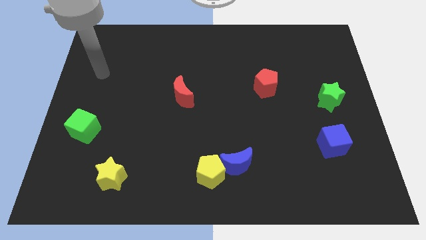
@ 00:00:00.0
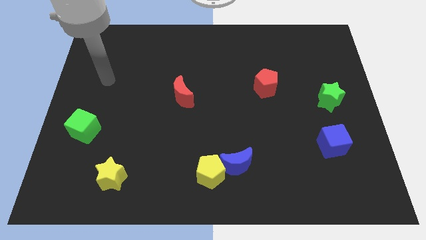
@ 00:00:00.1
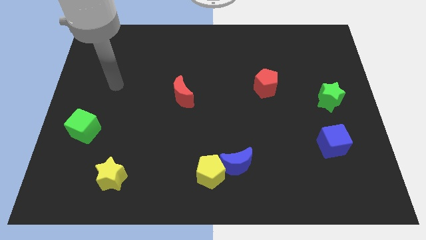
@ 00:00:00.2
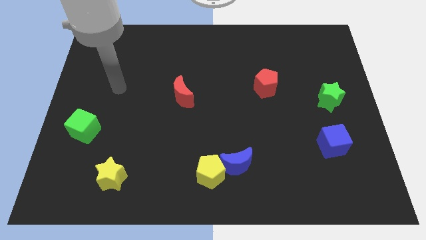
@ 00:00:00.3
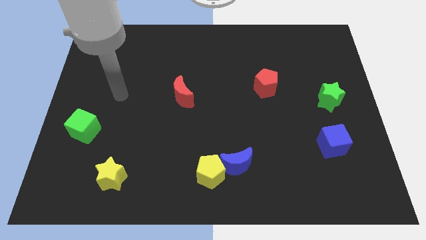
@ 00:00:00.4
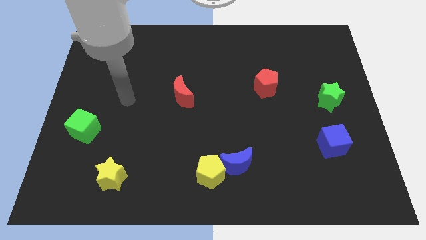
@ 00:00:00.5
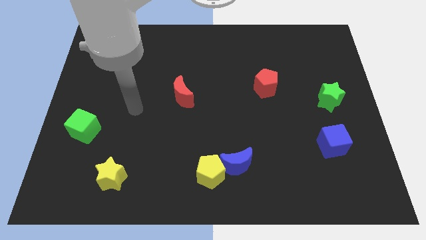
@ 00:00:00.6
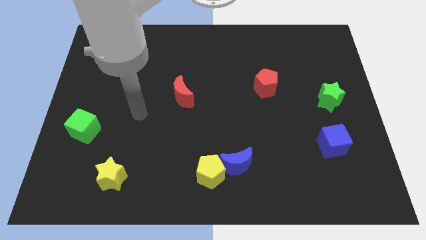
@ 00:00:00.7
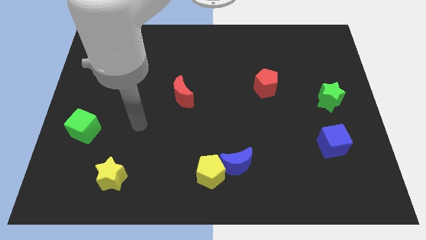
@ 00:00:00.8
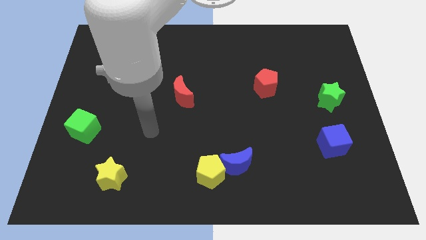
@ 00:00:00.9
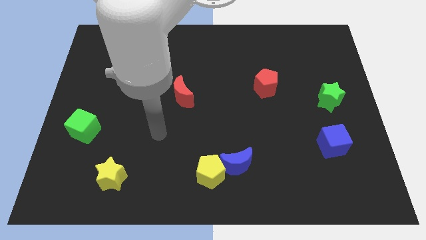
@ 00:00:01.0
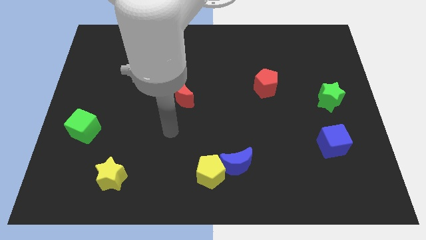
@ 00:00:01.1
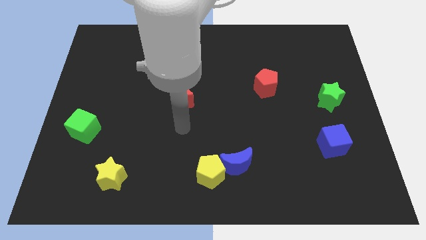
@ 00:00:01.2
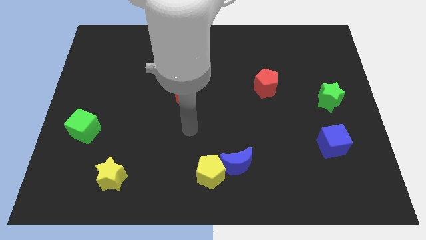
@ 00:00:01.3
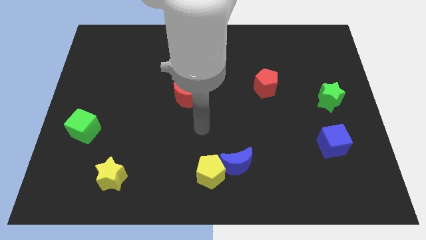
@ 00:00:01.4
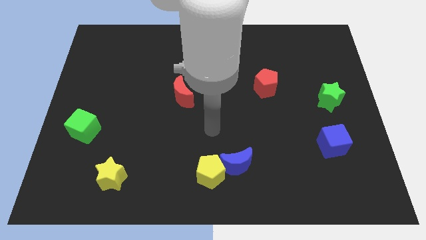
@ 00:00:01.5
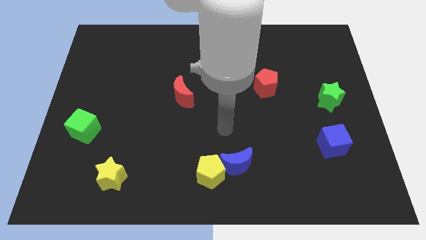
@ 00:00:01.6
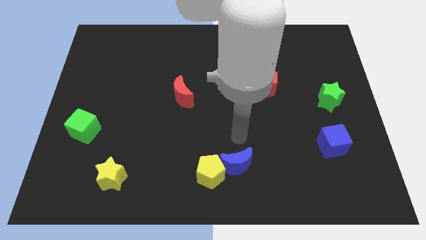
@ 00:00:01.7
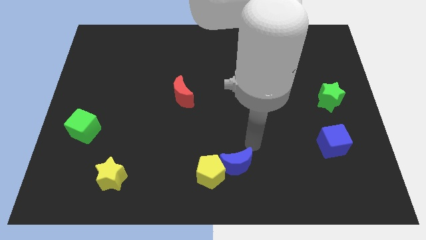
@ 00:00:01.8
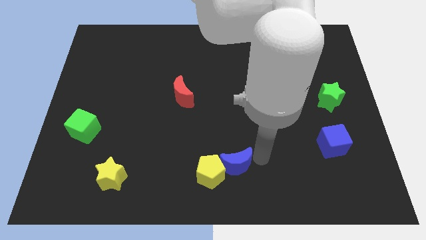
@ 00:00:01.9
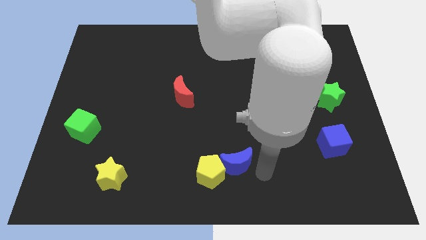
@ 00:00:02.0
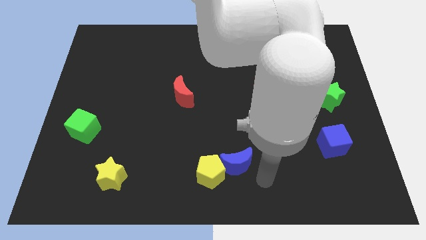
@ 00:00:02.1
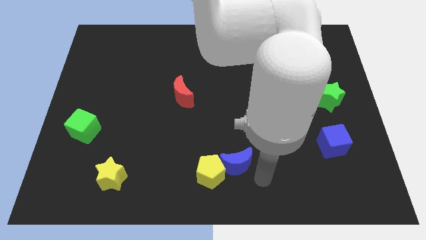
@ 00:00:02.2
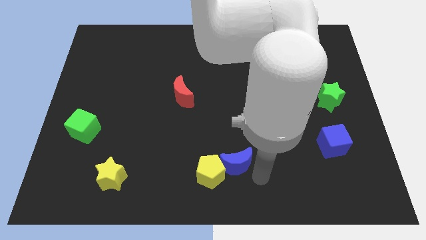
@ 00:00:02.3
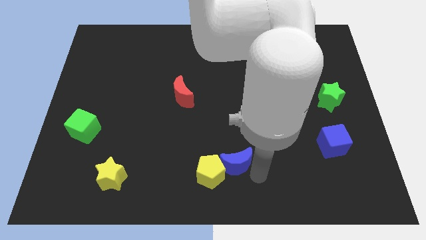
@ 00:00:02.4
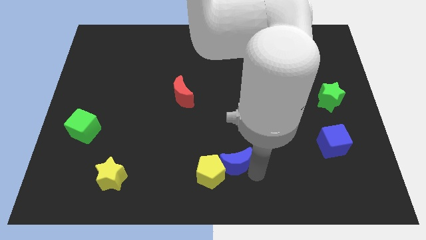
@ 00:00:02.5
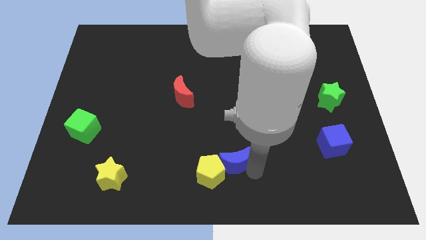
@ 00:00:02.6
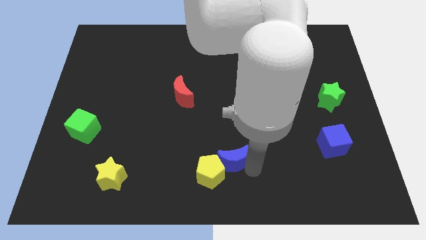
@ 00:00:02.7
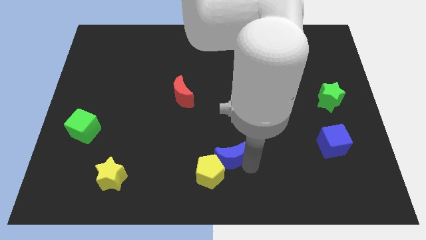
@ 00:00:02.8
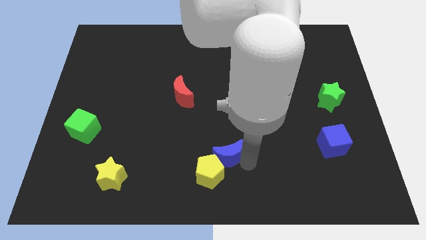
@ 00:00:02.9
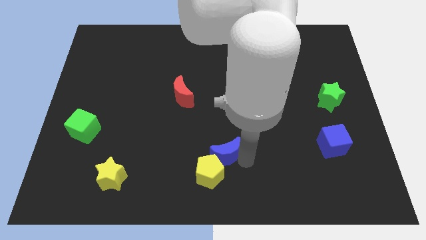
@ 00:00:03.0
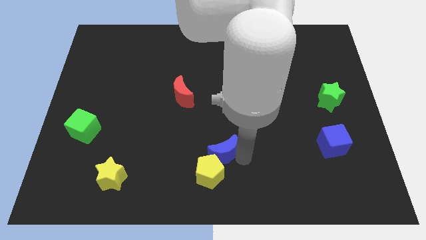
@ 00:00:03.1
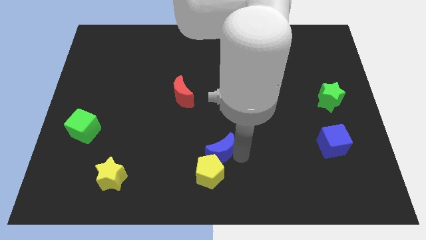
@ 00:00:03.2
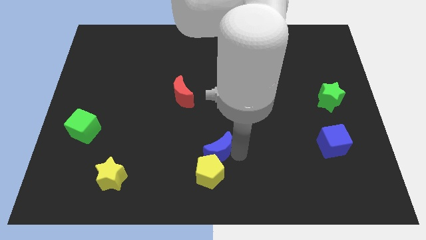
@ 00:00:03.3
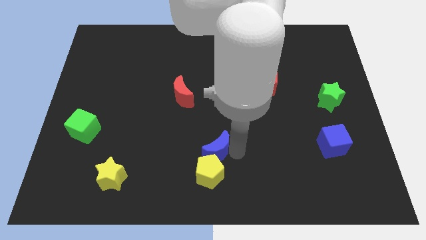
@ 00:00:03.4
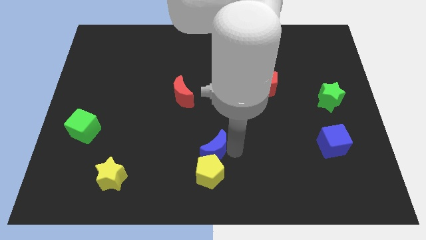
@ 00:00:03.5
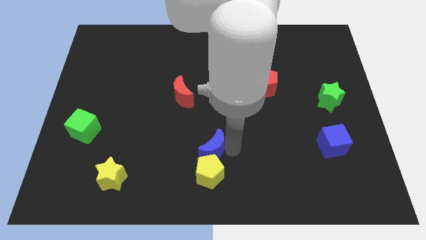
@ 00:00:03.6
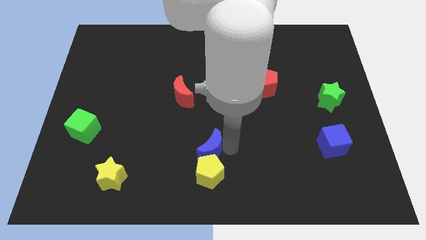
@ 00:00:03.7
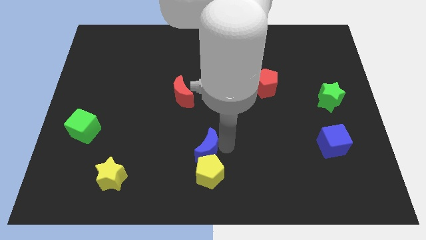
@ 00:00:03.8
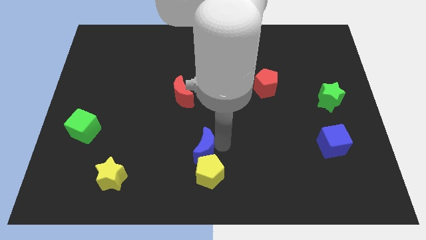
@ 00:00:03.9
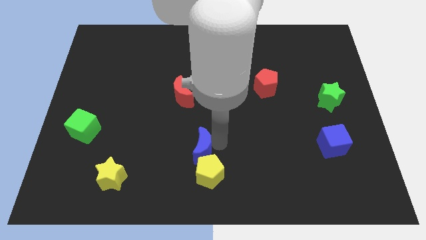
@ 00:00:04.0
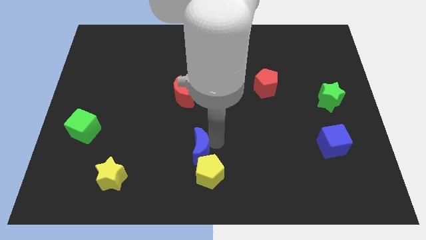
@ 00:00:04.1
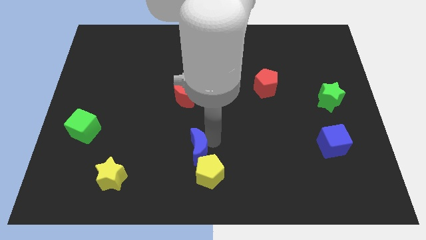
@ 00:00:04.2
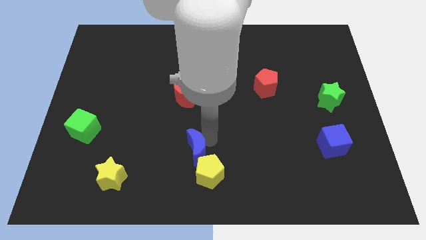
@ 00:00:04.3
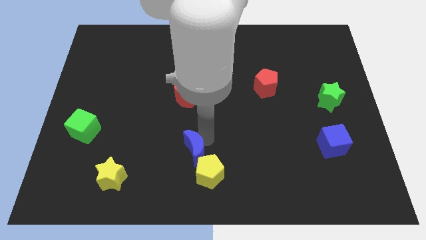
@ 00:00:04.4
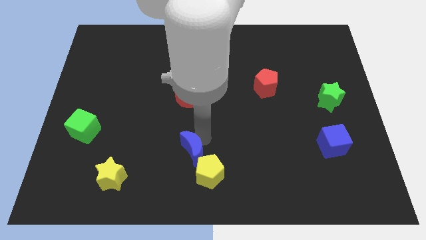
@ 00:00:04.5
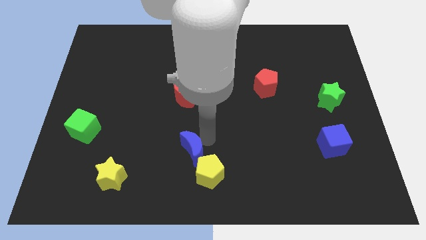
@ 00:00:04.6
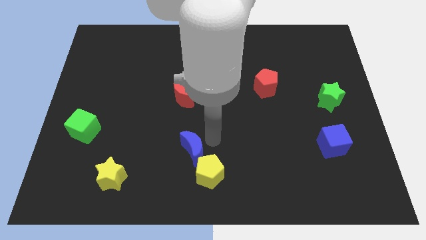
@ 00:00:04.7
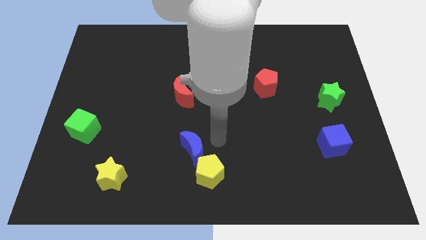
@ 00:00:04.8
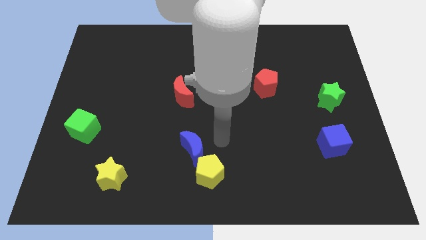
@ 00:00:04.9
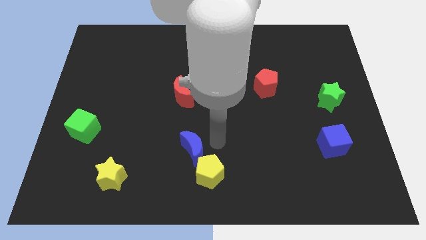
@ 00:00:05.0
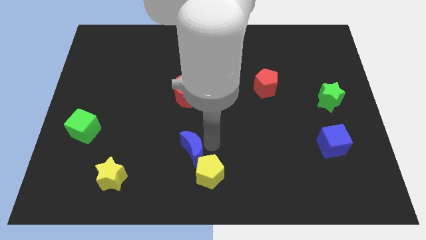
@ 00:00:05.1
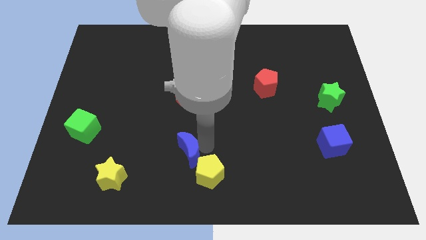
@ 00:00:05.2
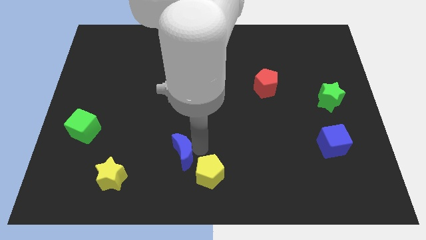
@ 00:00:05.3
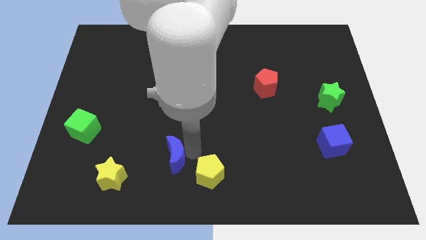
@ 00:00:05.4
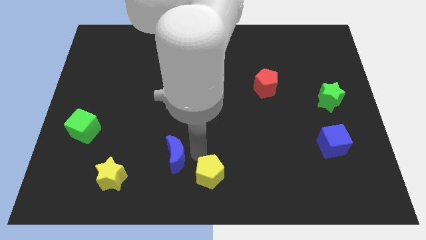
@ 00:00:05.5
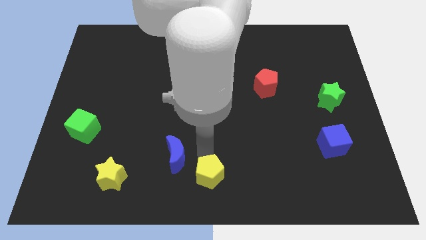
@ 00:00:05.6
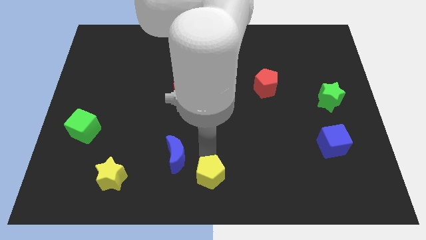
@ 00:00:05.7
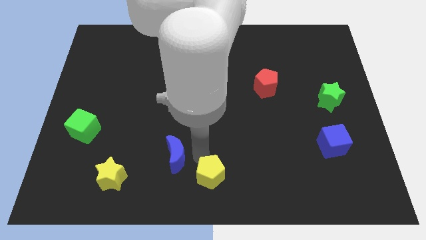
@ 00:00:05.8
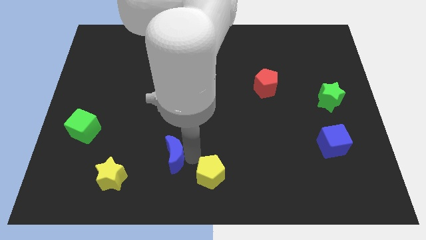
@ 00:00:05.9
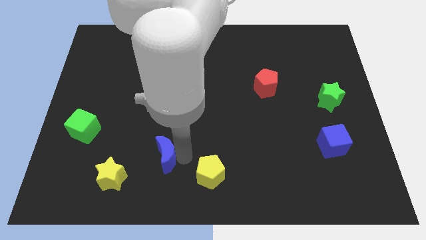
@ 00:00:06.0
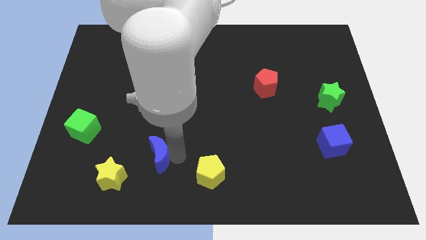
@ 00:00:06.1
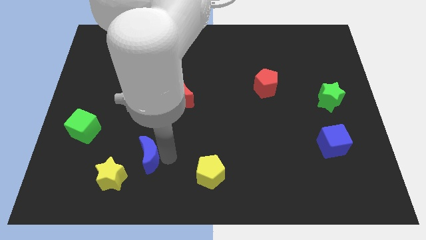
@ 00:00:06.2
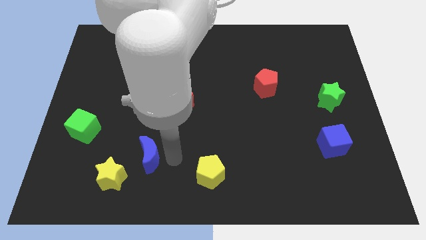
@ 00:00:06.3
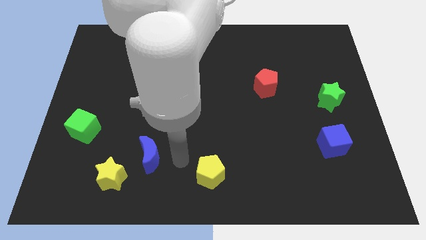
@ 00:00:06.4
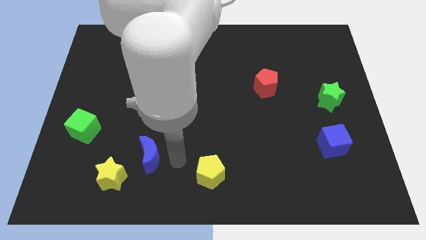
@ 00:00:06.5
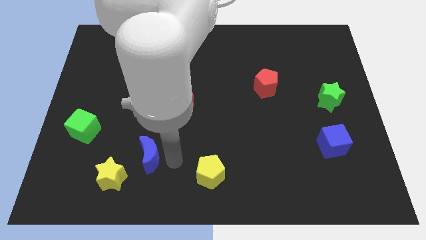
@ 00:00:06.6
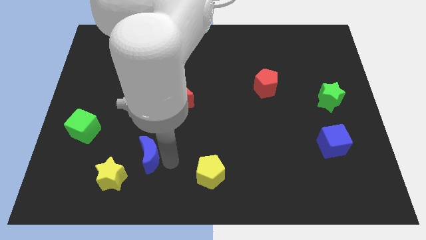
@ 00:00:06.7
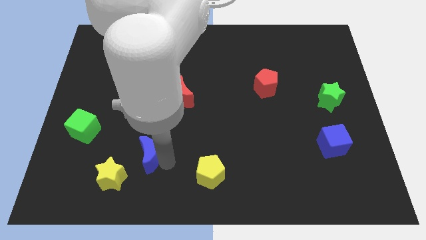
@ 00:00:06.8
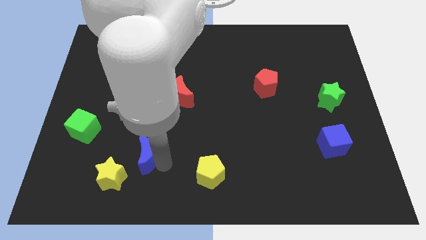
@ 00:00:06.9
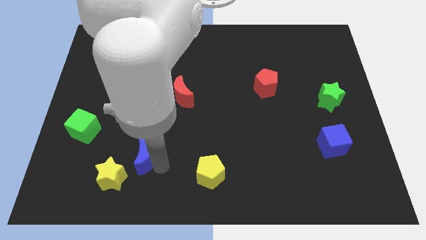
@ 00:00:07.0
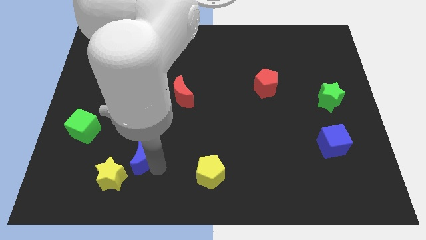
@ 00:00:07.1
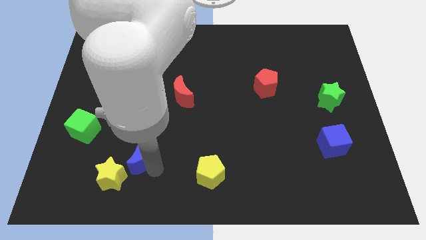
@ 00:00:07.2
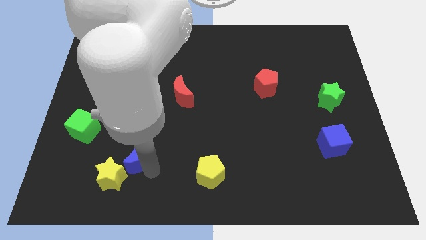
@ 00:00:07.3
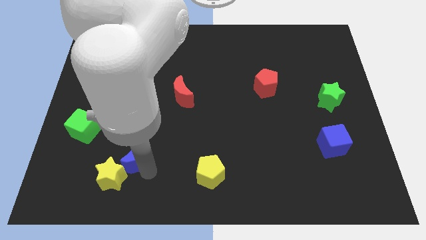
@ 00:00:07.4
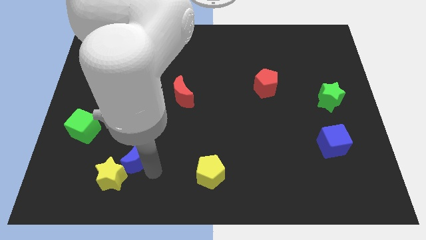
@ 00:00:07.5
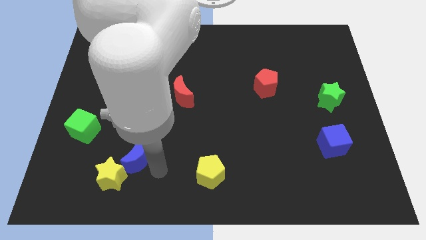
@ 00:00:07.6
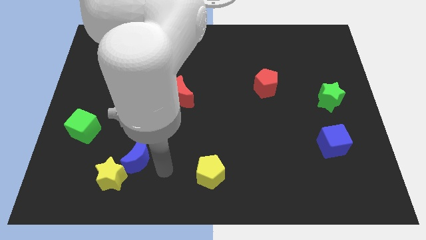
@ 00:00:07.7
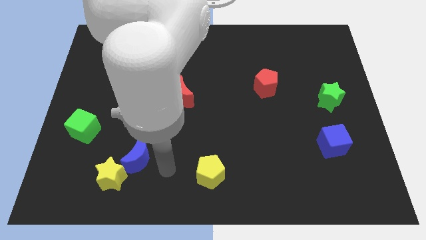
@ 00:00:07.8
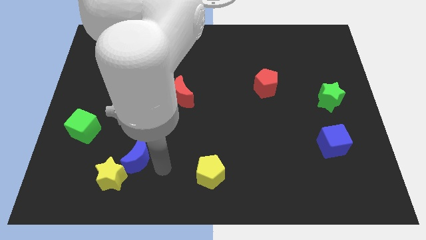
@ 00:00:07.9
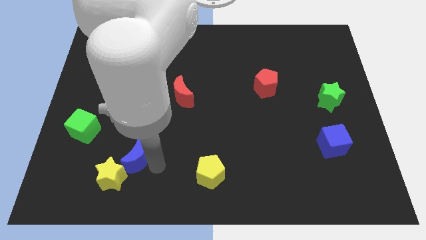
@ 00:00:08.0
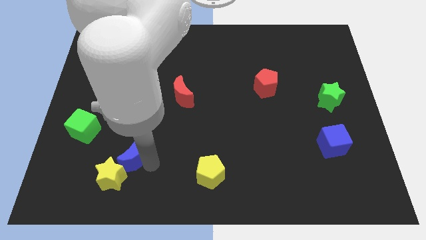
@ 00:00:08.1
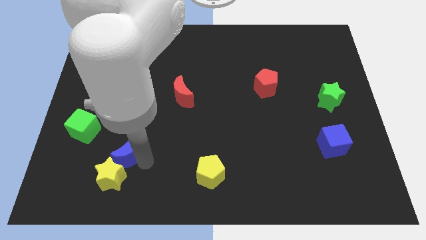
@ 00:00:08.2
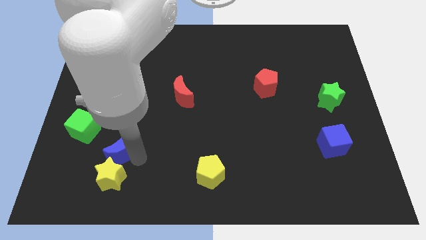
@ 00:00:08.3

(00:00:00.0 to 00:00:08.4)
move the blue moon diagonally down and to the right of the green cube
